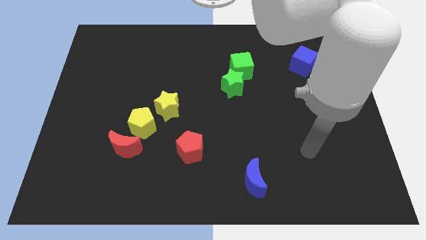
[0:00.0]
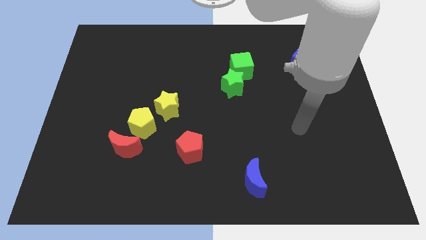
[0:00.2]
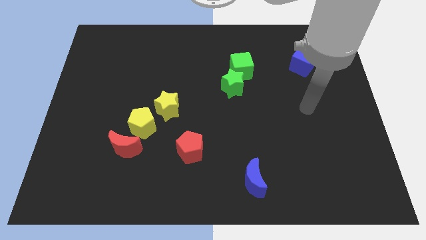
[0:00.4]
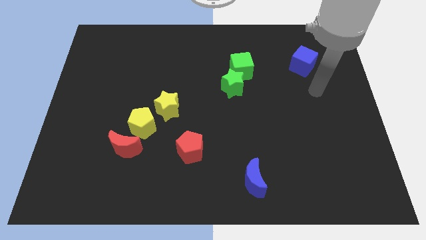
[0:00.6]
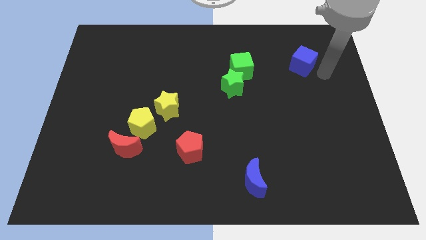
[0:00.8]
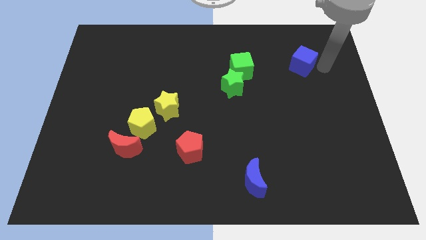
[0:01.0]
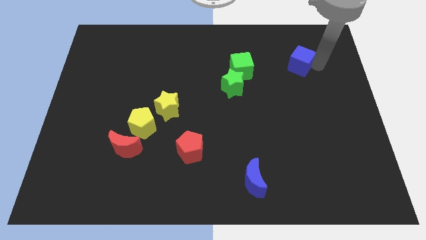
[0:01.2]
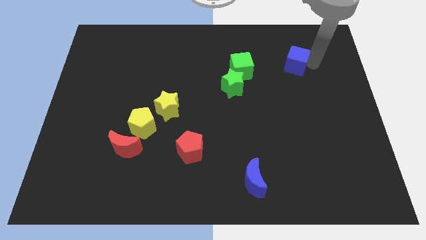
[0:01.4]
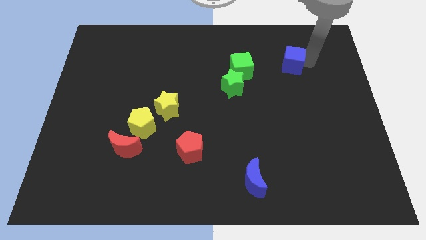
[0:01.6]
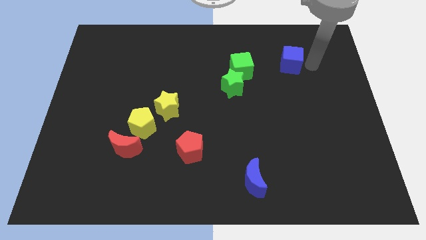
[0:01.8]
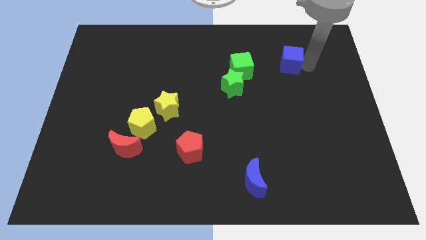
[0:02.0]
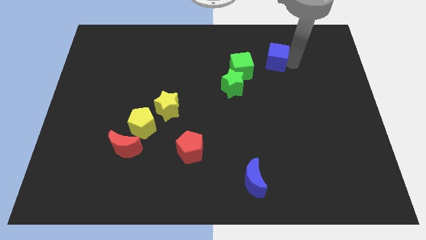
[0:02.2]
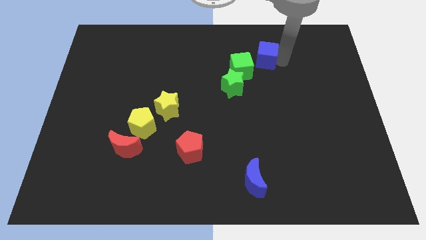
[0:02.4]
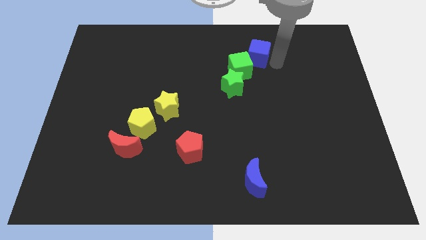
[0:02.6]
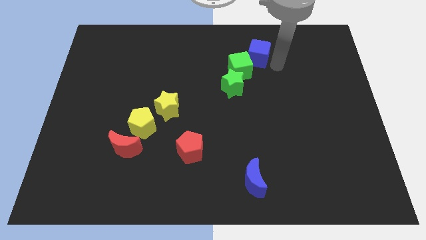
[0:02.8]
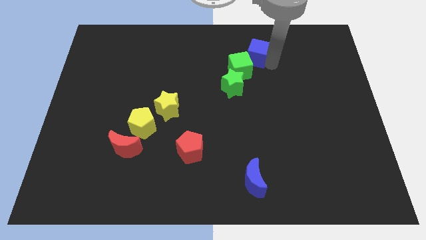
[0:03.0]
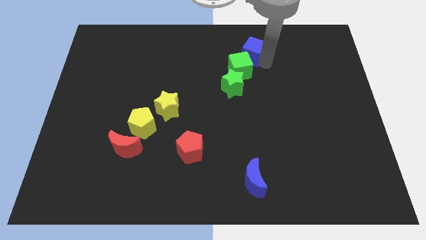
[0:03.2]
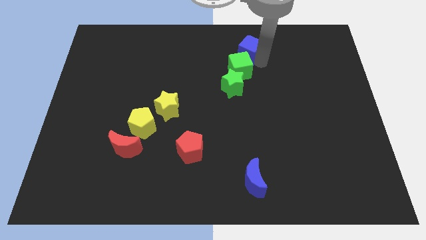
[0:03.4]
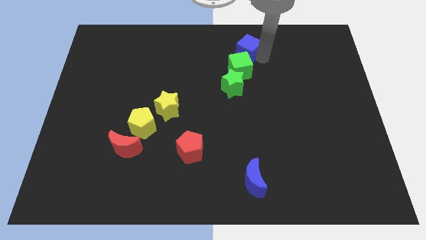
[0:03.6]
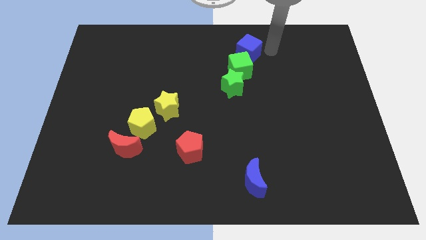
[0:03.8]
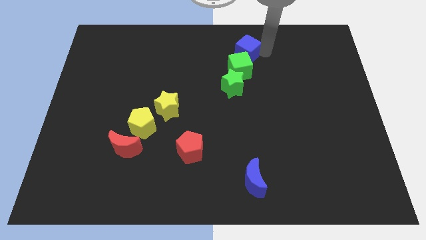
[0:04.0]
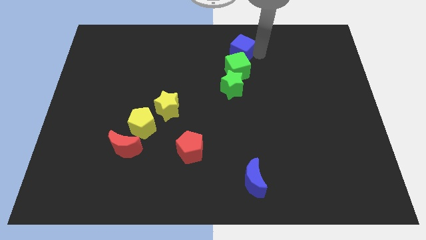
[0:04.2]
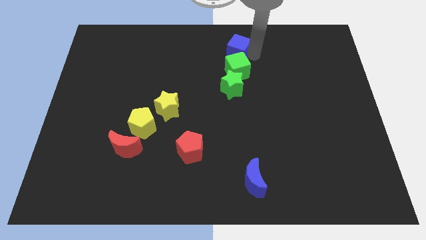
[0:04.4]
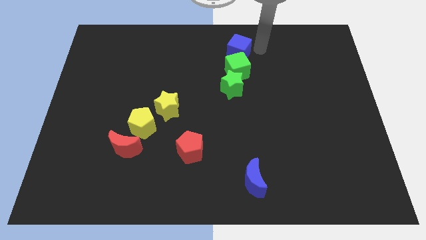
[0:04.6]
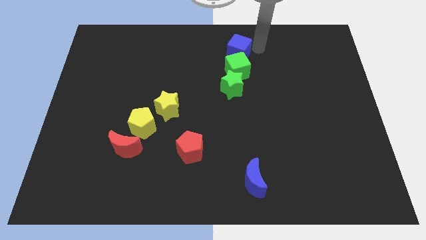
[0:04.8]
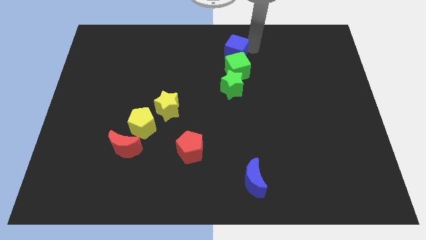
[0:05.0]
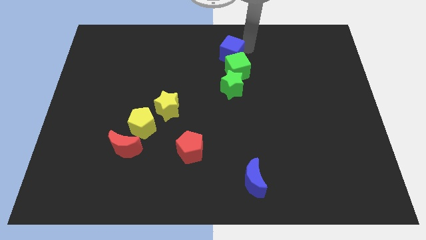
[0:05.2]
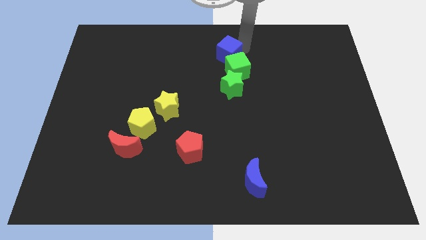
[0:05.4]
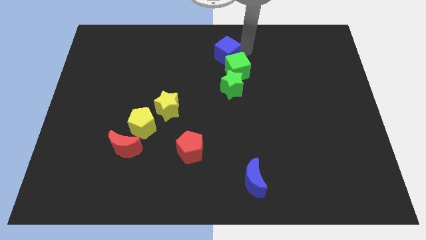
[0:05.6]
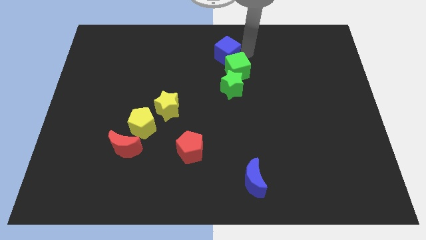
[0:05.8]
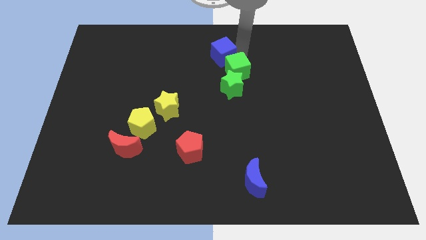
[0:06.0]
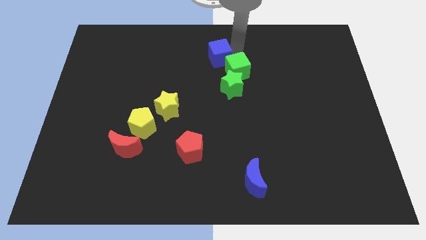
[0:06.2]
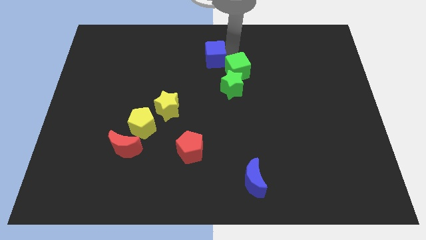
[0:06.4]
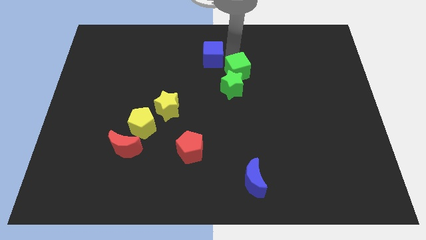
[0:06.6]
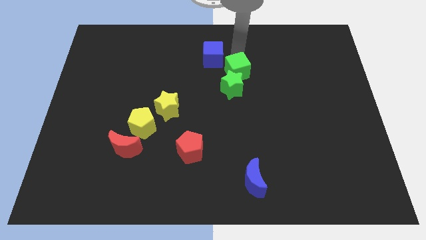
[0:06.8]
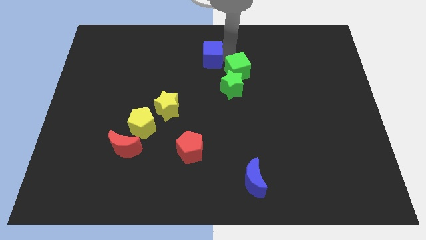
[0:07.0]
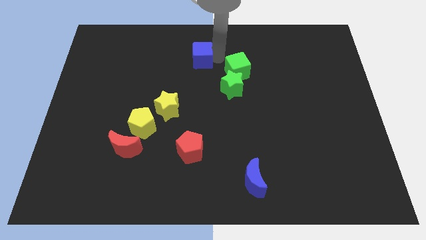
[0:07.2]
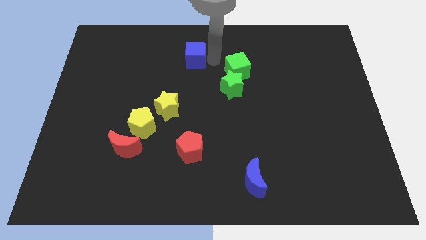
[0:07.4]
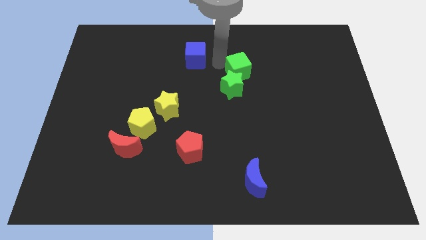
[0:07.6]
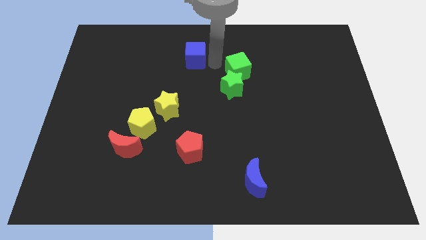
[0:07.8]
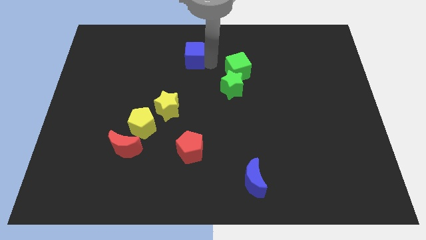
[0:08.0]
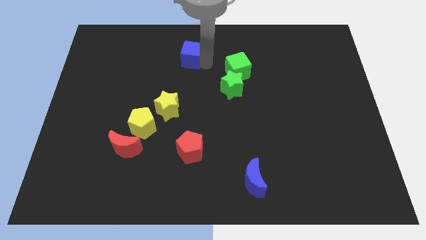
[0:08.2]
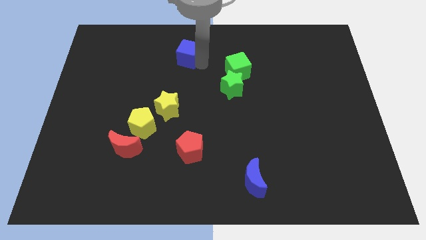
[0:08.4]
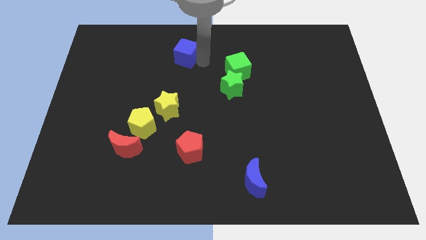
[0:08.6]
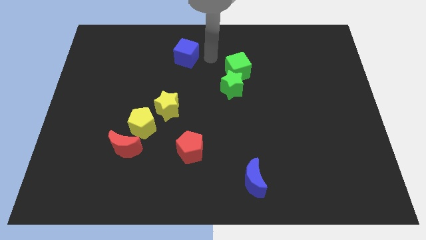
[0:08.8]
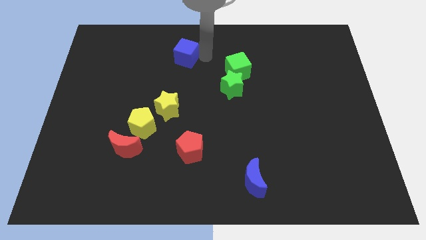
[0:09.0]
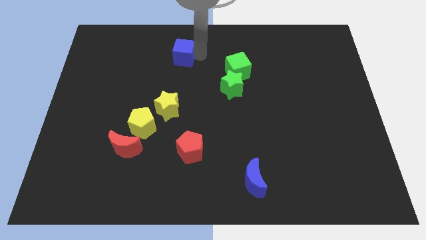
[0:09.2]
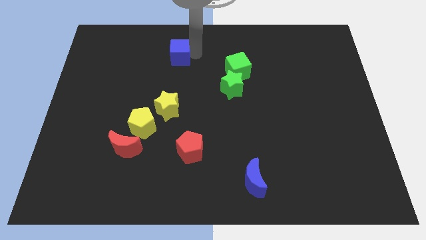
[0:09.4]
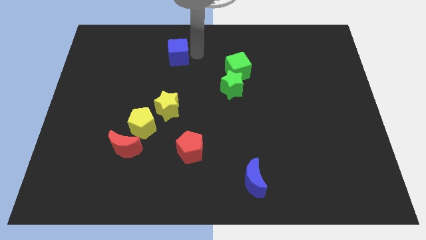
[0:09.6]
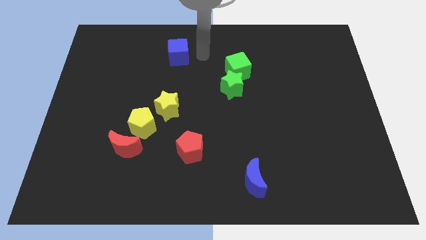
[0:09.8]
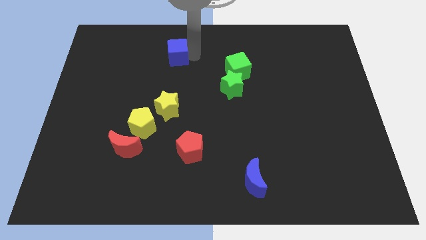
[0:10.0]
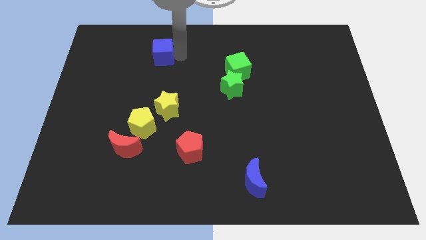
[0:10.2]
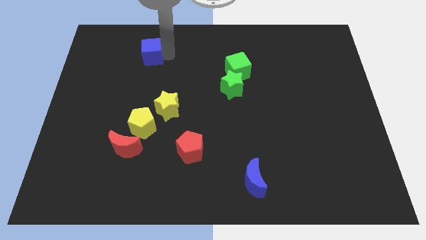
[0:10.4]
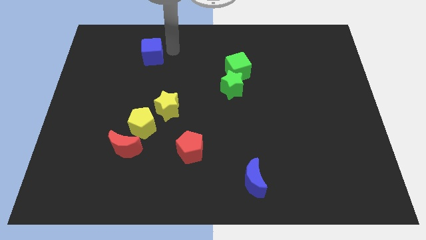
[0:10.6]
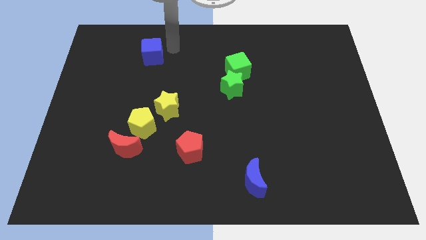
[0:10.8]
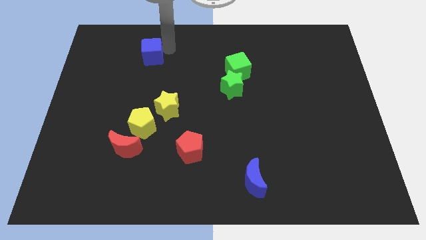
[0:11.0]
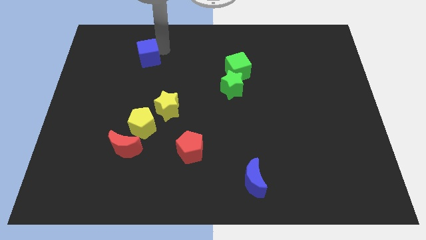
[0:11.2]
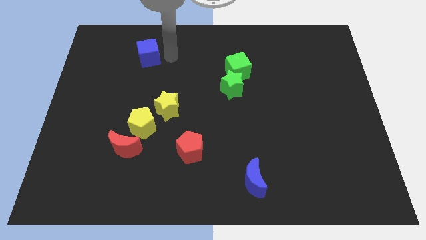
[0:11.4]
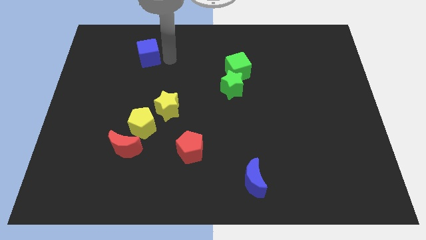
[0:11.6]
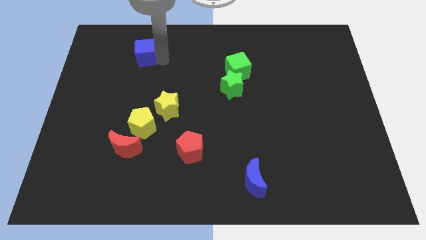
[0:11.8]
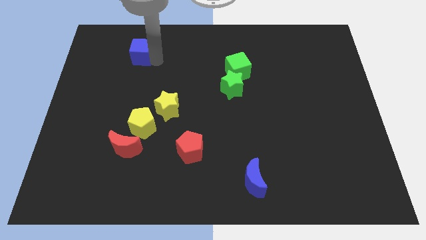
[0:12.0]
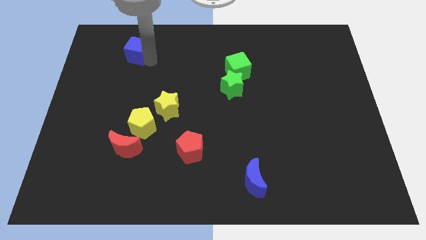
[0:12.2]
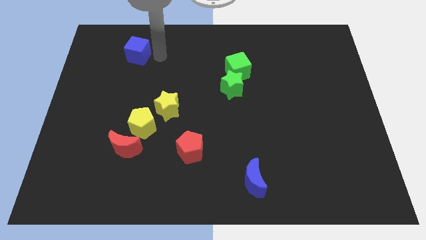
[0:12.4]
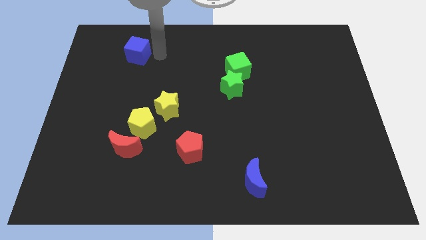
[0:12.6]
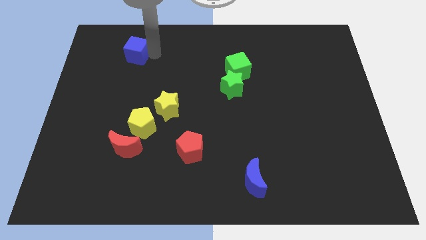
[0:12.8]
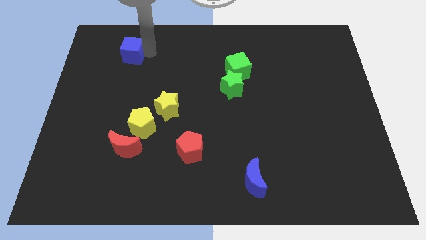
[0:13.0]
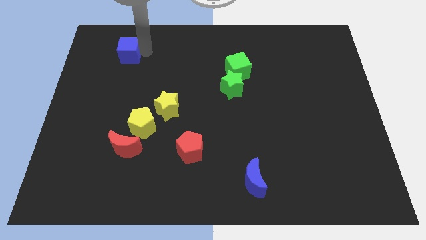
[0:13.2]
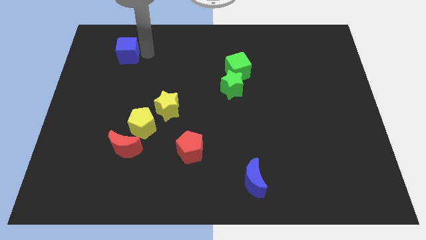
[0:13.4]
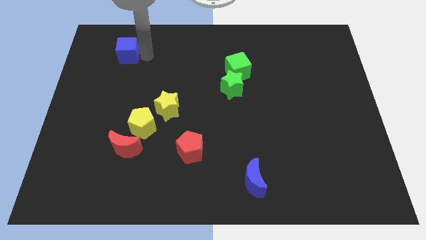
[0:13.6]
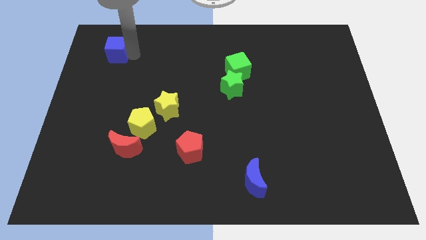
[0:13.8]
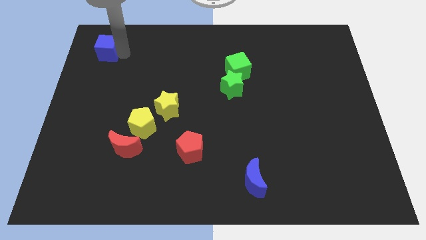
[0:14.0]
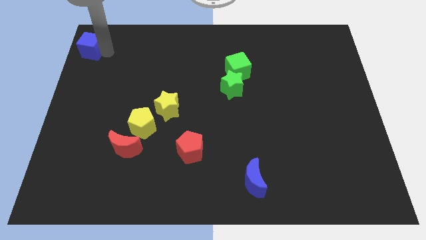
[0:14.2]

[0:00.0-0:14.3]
push the blue cube to the top left

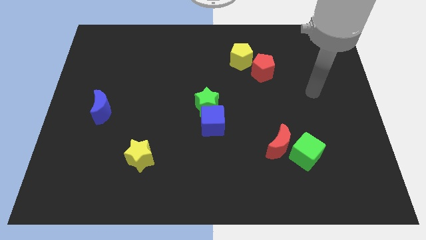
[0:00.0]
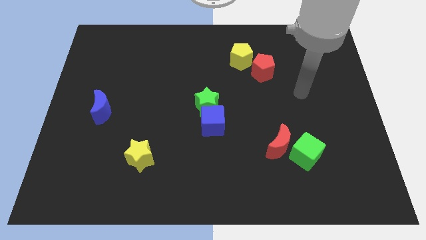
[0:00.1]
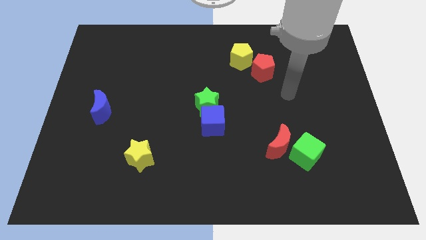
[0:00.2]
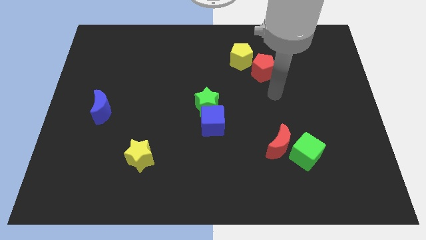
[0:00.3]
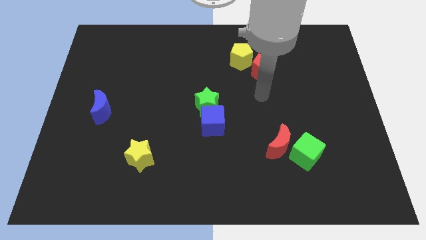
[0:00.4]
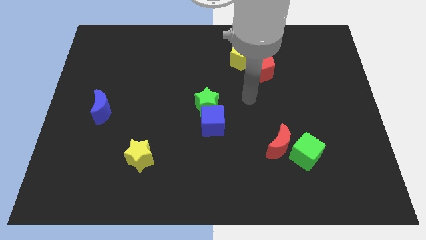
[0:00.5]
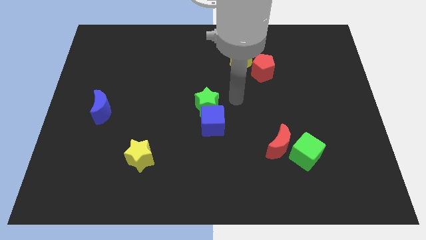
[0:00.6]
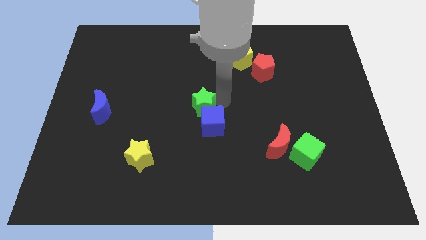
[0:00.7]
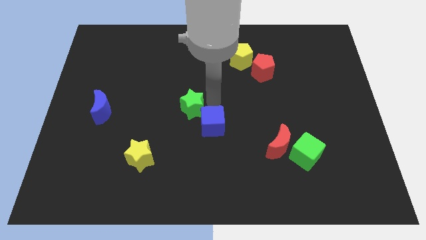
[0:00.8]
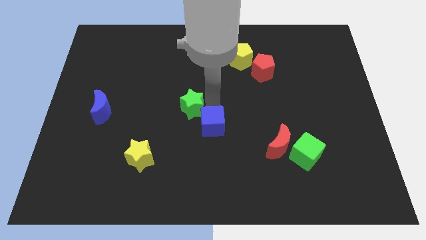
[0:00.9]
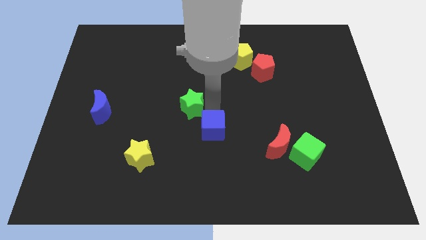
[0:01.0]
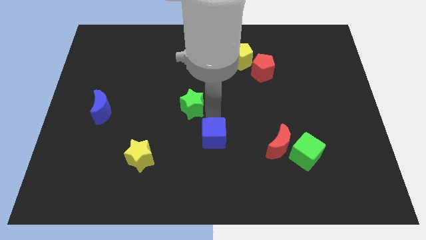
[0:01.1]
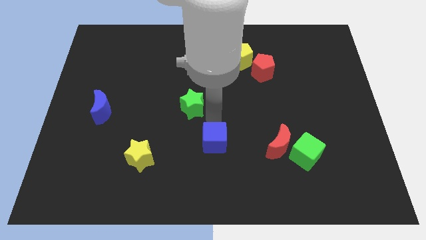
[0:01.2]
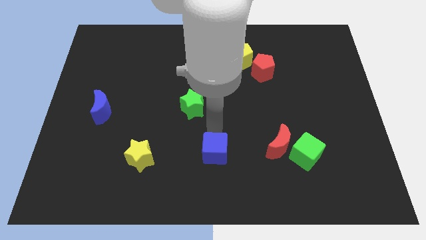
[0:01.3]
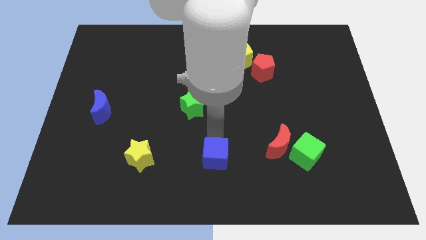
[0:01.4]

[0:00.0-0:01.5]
move the blue cube to the bottom

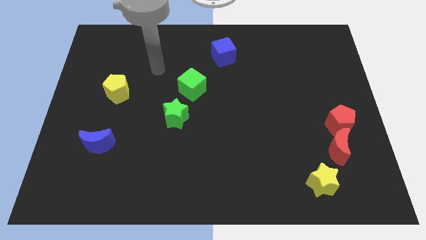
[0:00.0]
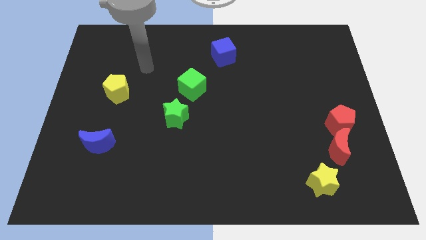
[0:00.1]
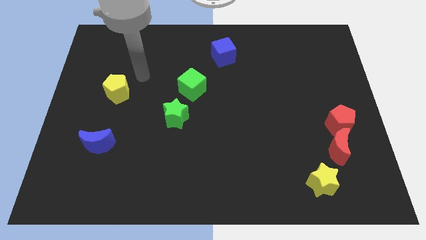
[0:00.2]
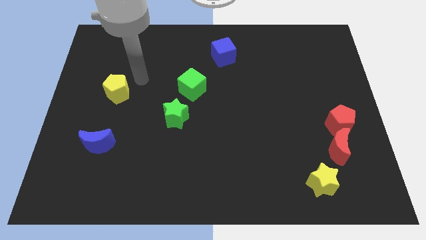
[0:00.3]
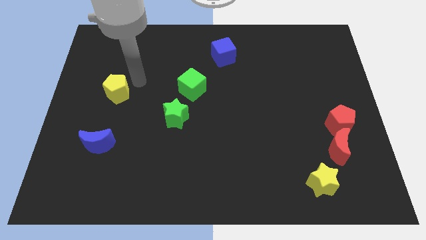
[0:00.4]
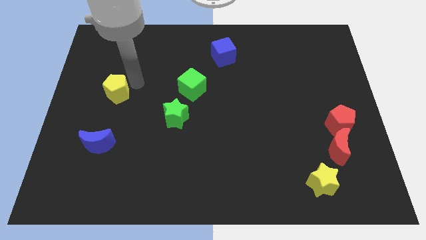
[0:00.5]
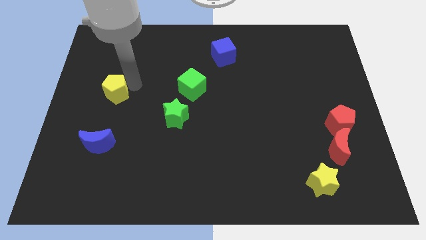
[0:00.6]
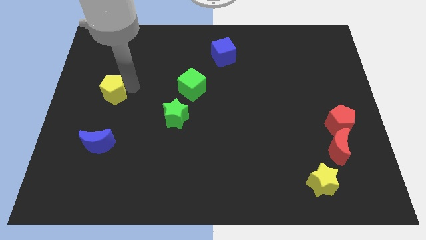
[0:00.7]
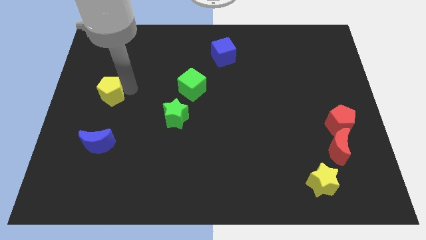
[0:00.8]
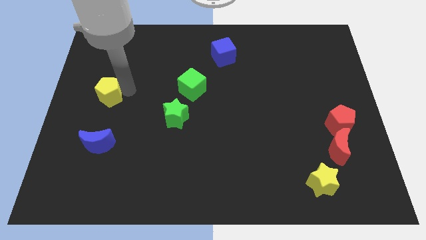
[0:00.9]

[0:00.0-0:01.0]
push the yellow pentagon to the left side of the board
